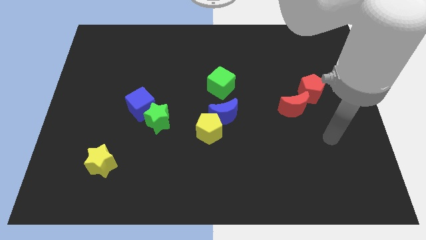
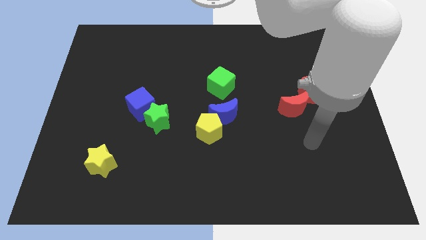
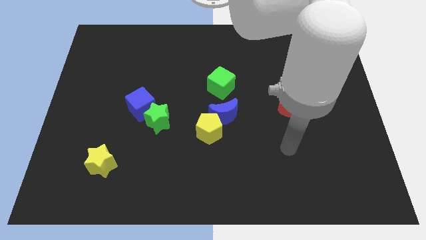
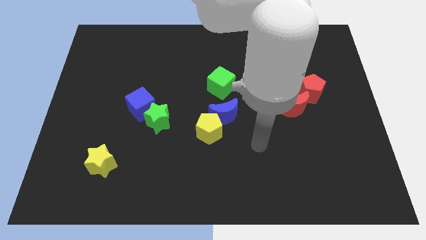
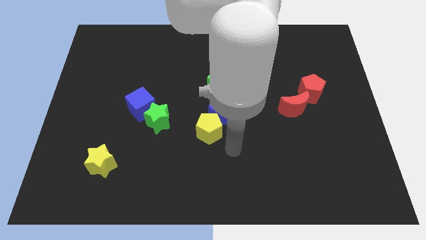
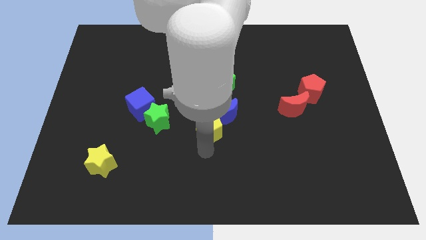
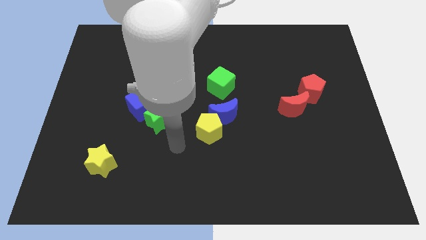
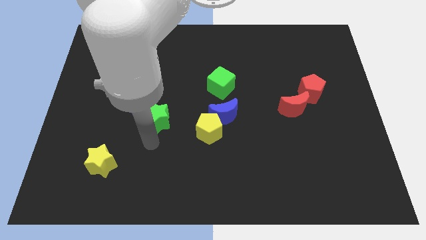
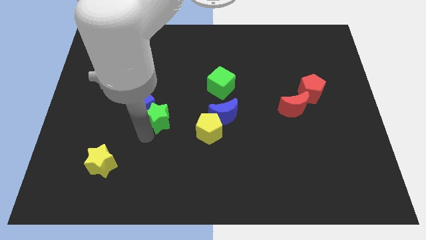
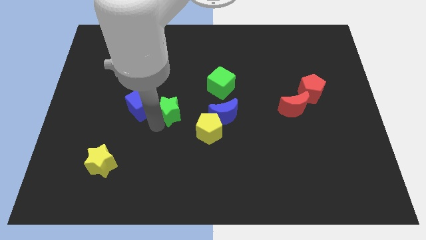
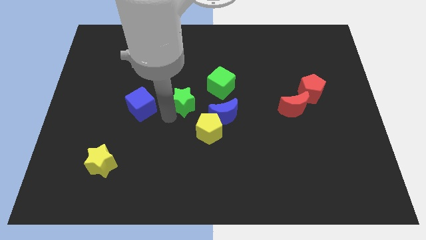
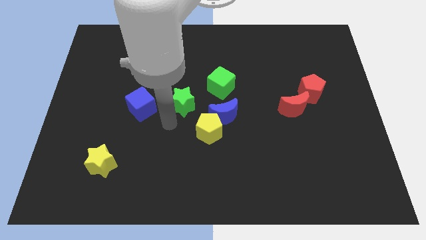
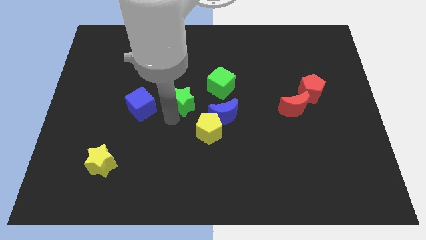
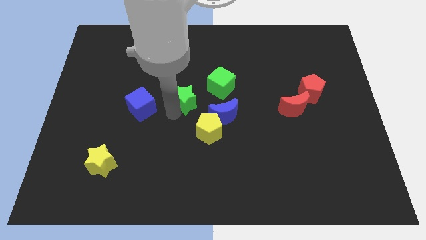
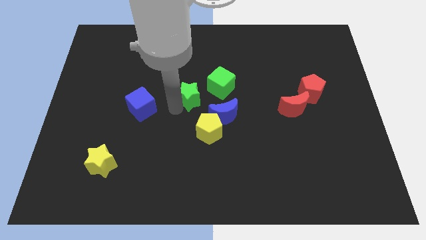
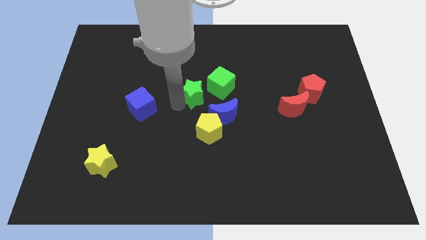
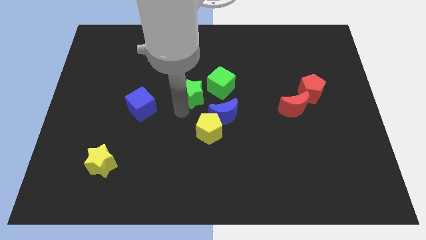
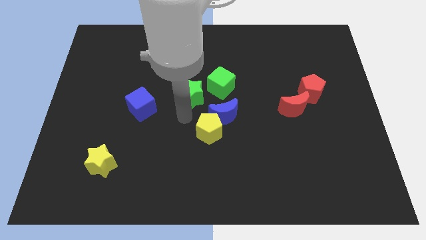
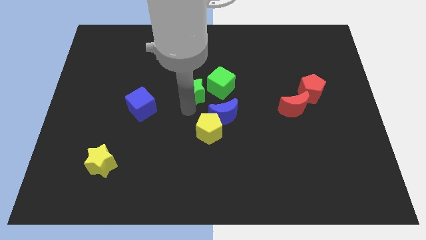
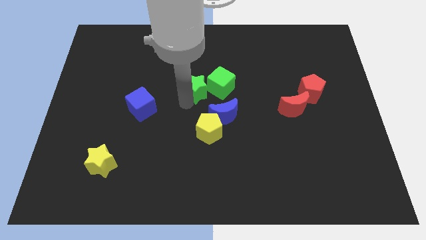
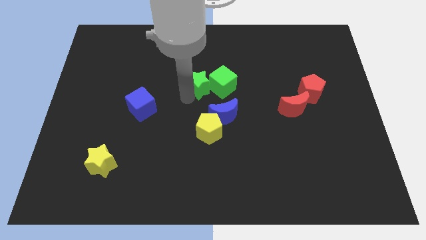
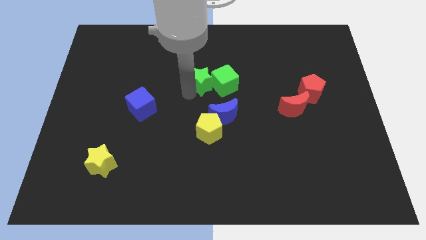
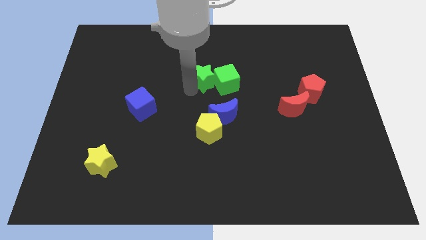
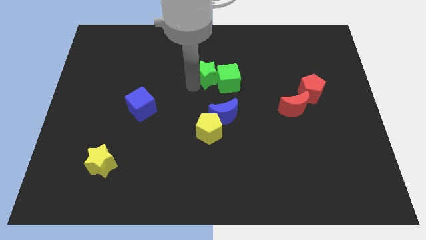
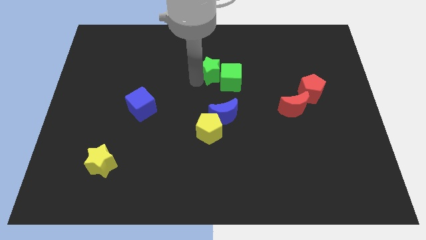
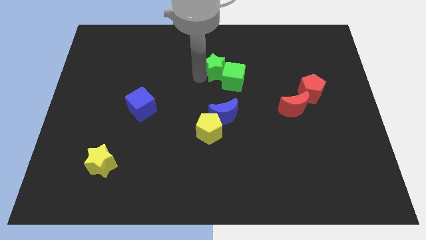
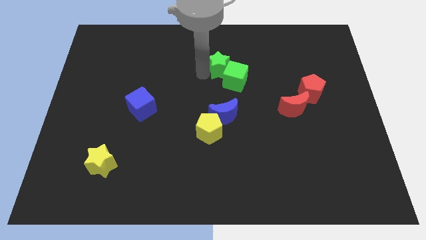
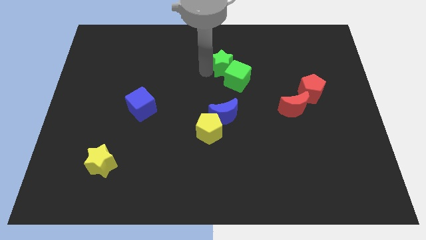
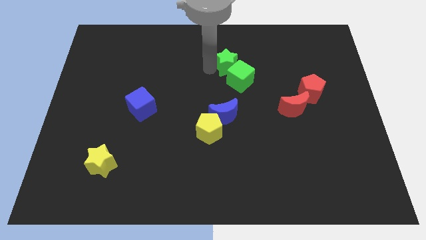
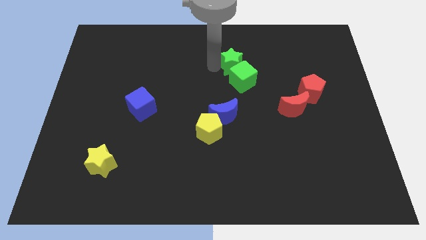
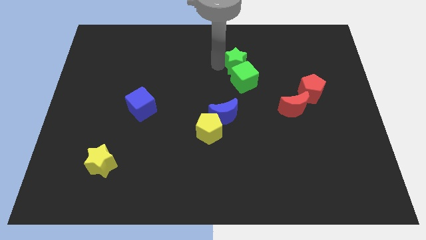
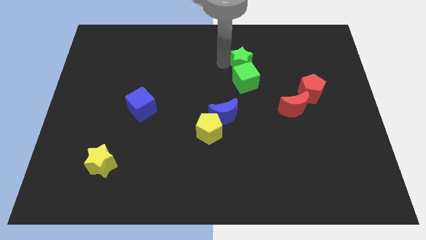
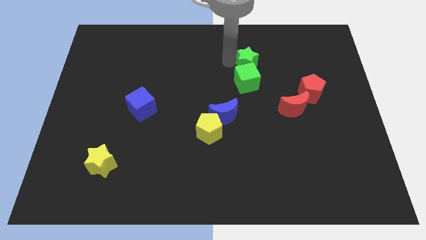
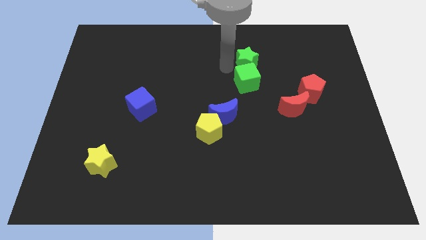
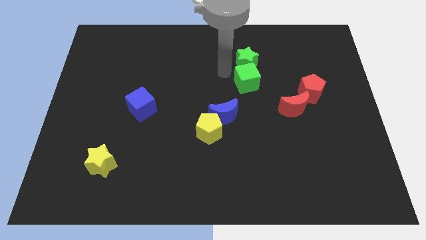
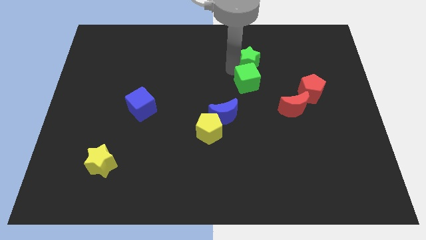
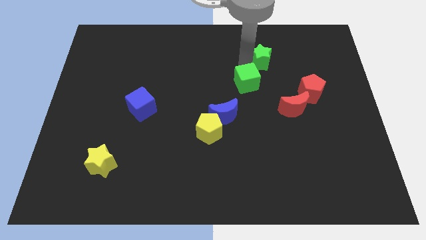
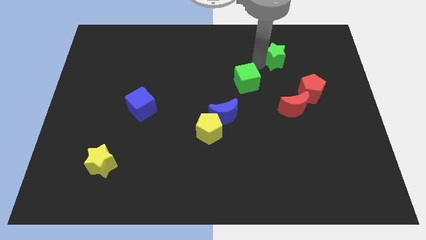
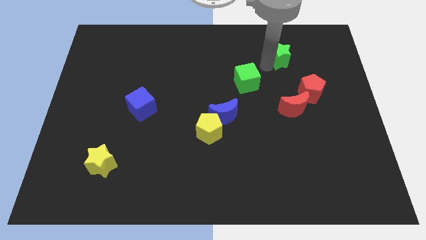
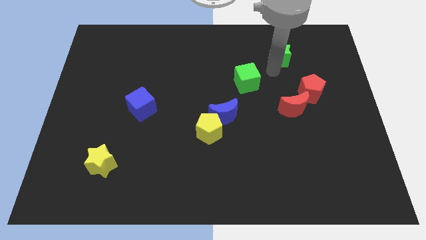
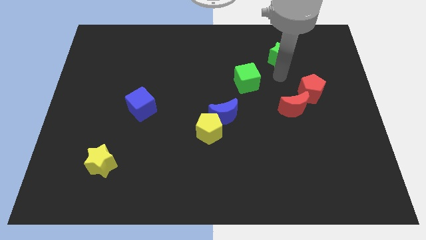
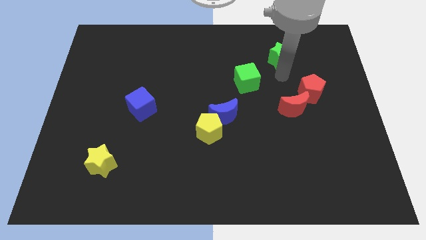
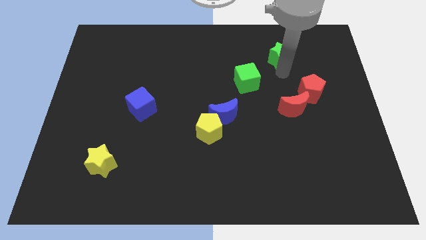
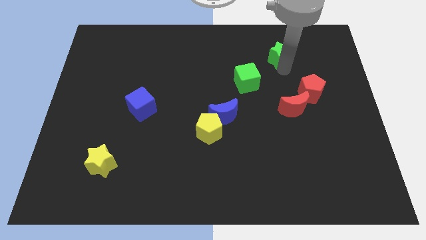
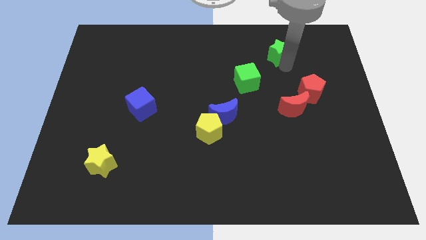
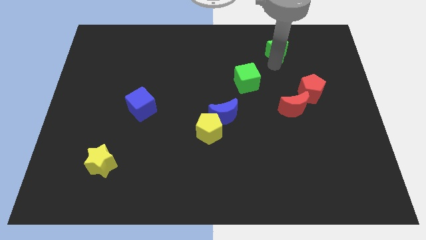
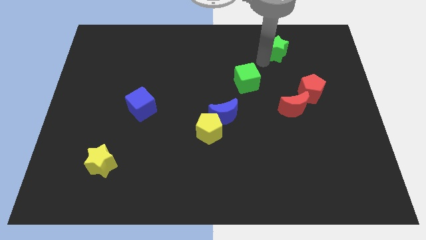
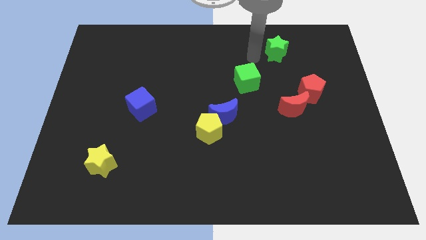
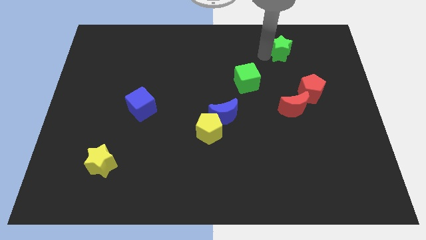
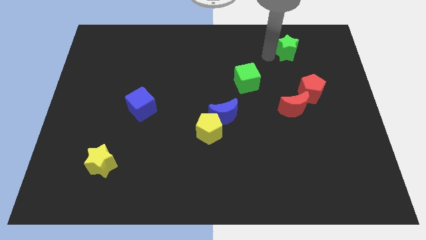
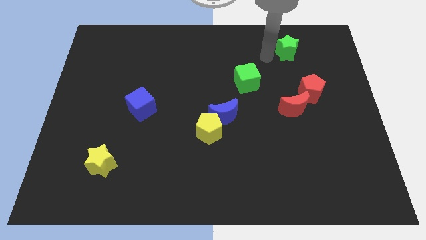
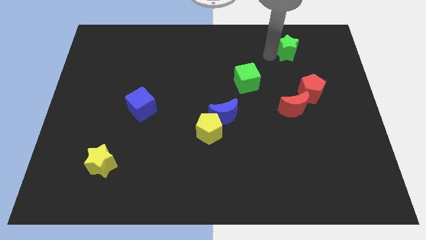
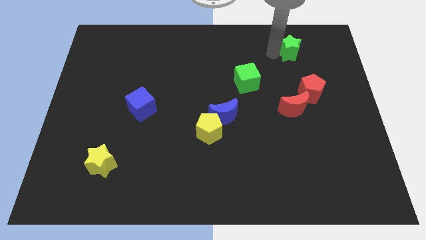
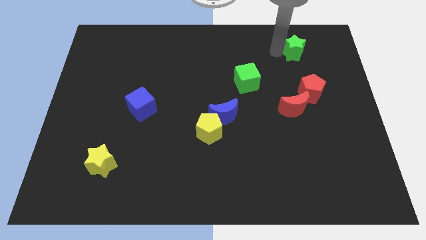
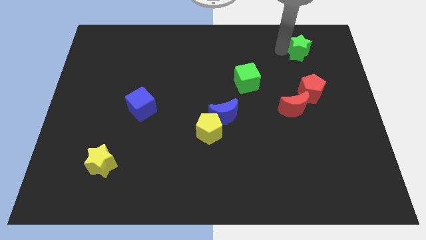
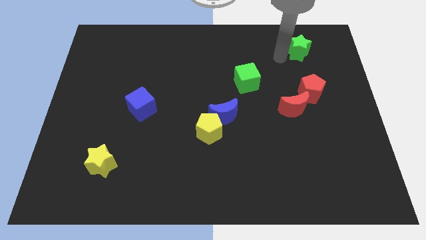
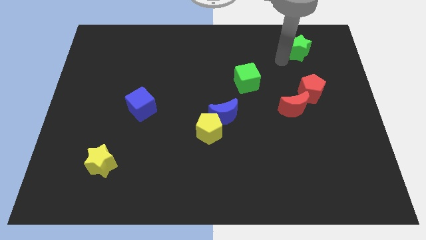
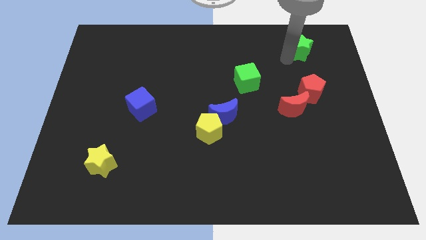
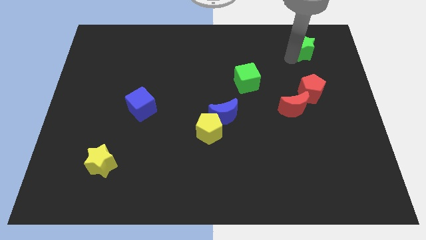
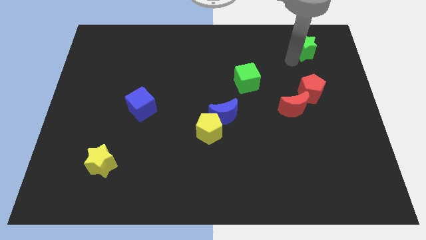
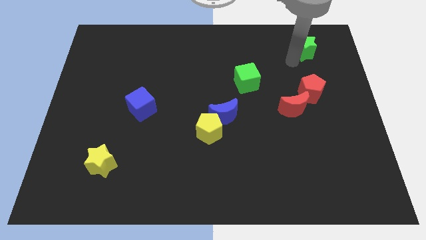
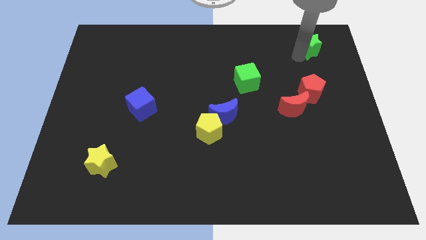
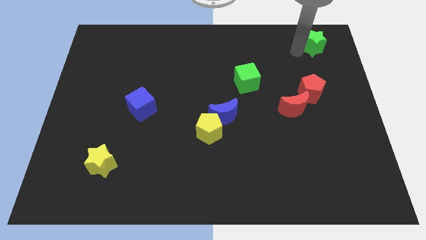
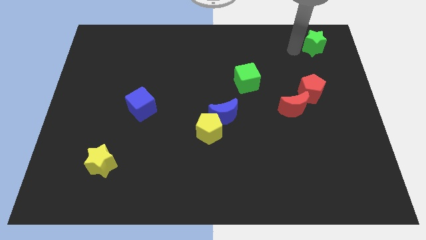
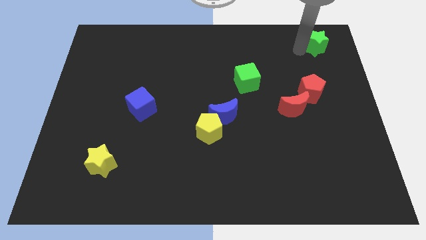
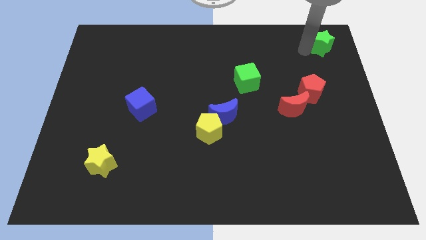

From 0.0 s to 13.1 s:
put the green star to the top right

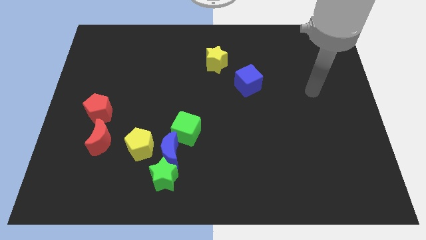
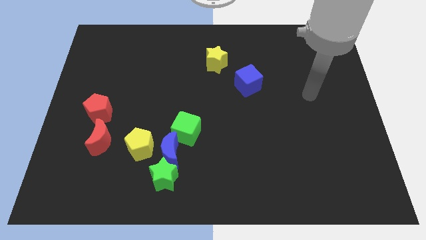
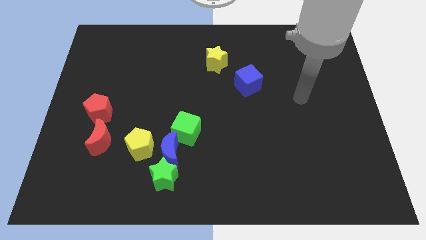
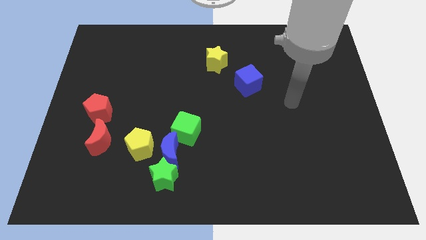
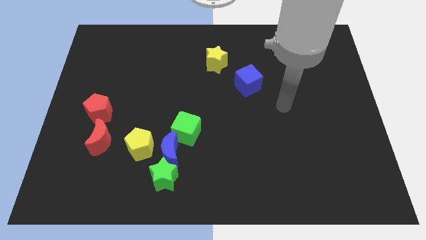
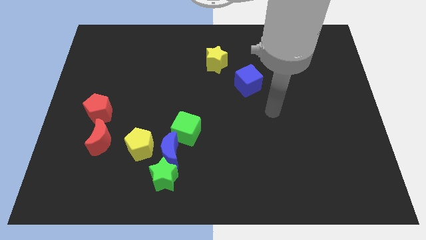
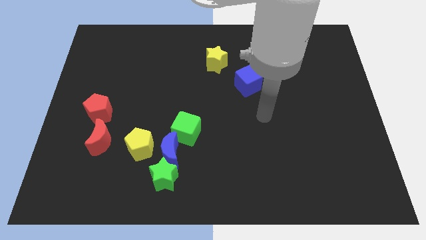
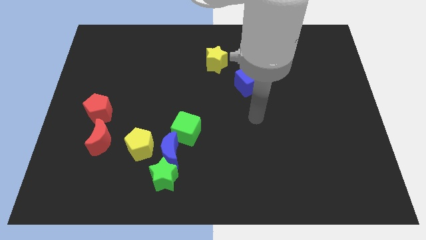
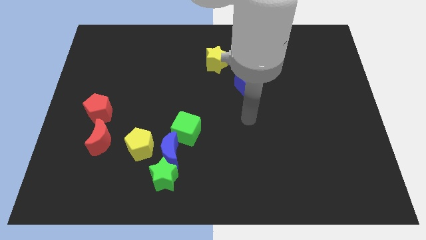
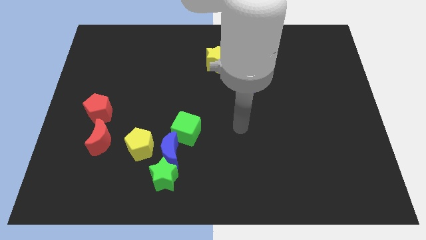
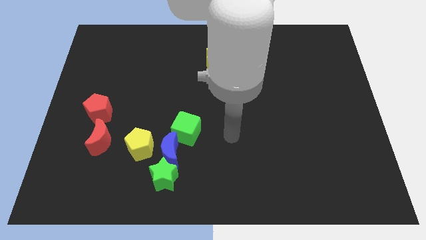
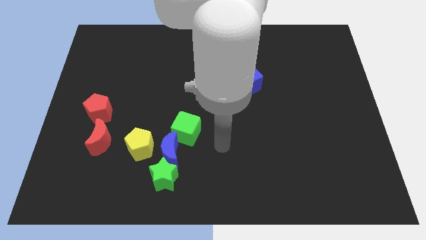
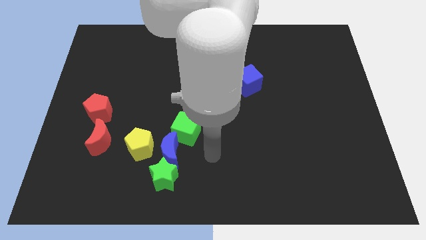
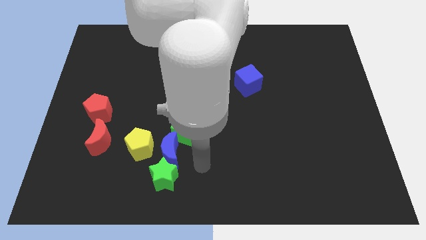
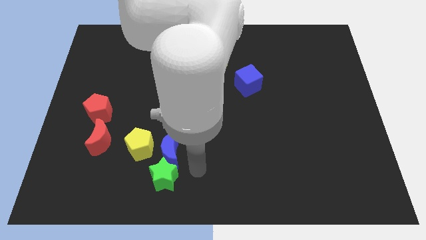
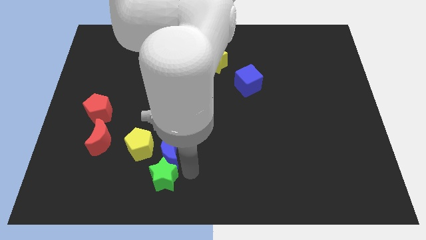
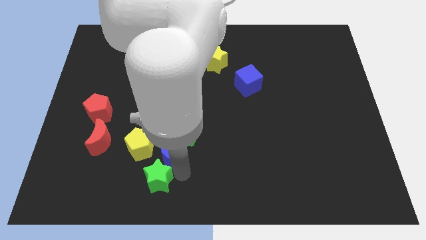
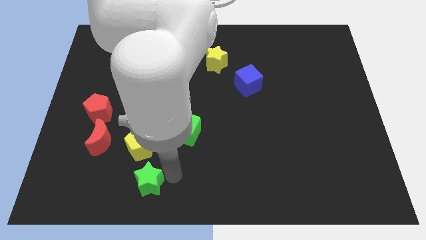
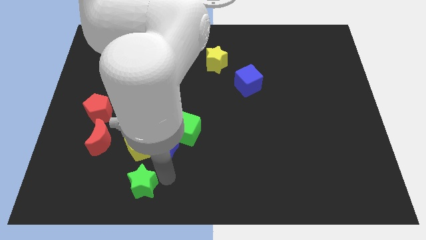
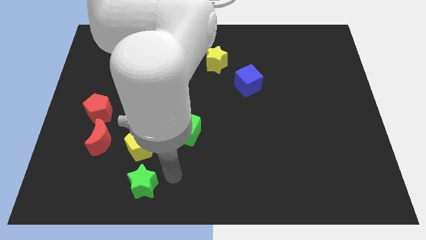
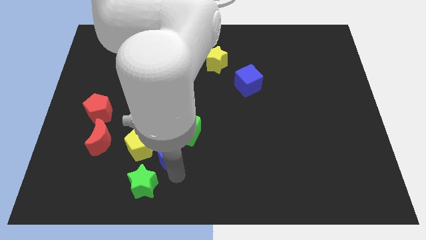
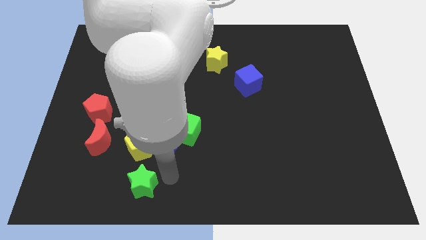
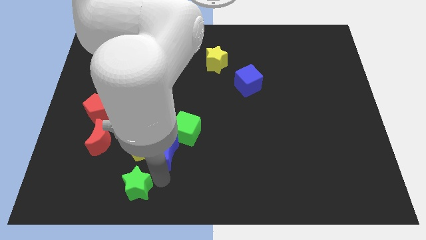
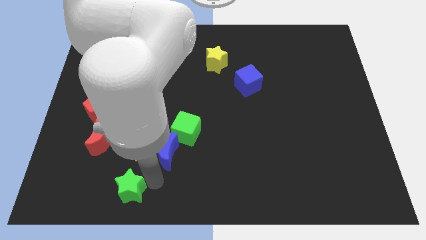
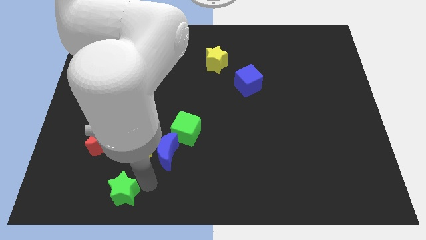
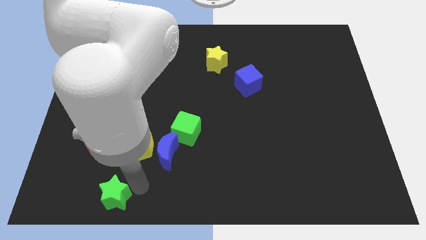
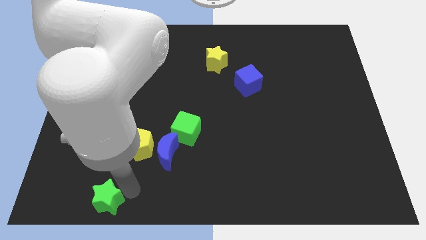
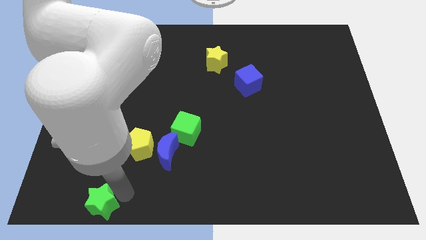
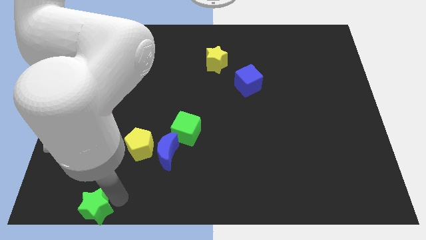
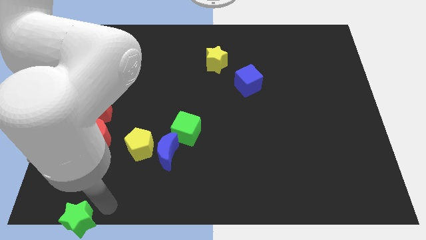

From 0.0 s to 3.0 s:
put the green star to the bottom left corner
